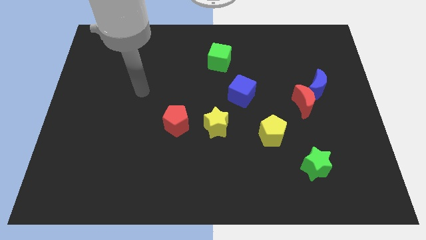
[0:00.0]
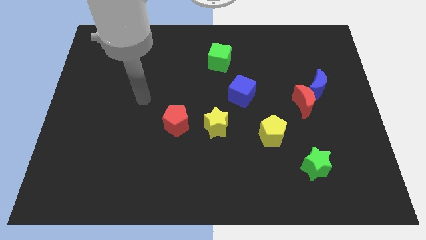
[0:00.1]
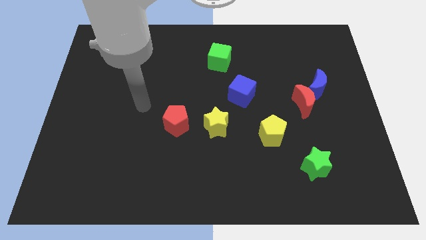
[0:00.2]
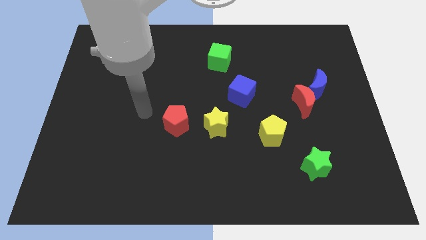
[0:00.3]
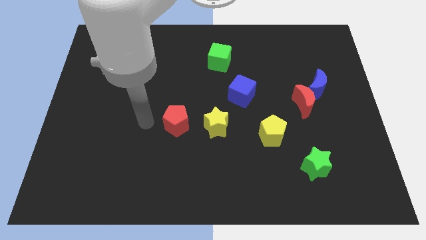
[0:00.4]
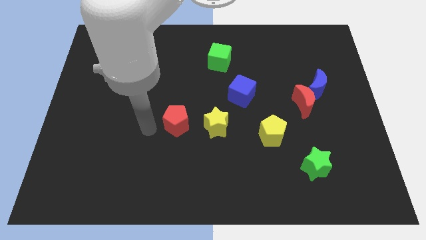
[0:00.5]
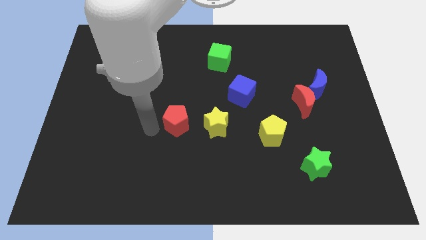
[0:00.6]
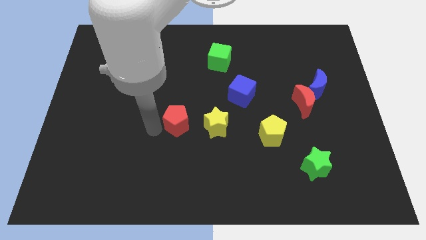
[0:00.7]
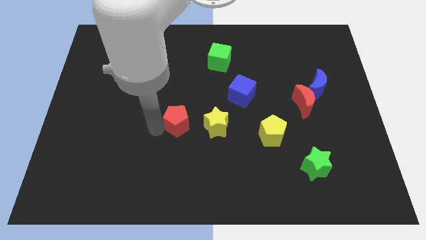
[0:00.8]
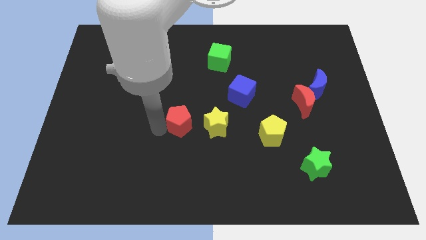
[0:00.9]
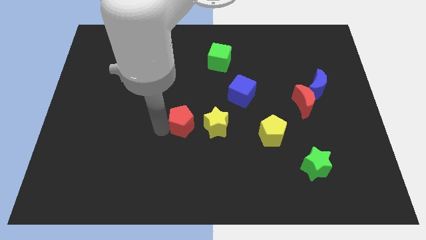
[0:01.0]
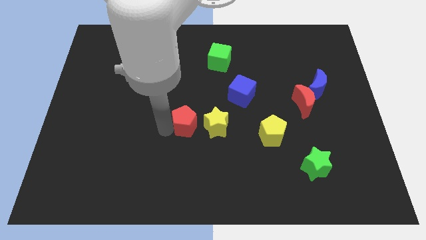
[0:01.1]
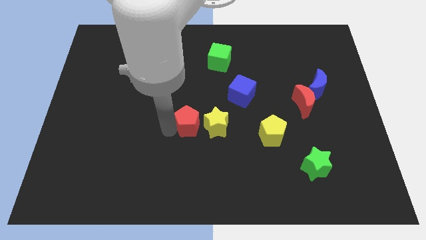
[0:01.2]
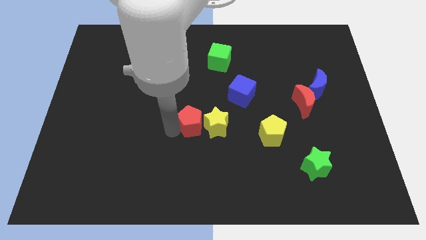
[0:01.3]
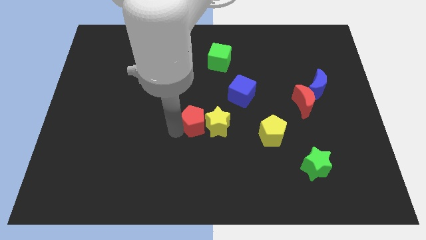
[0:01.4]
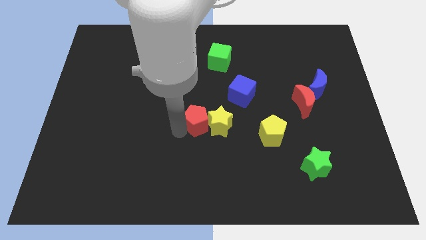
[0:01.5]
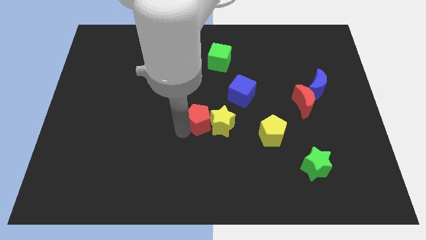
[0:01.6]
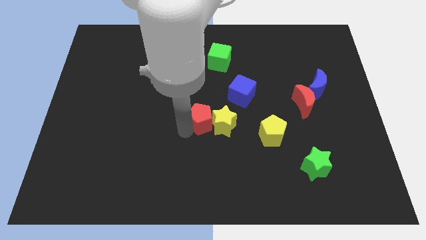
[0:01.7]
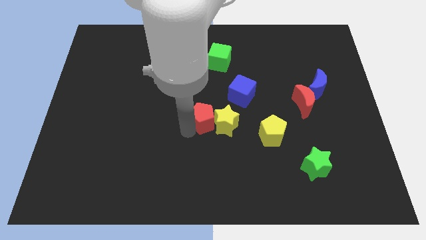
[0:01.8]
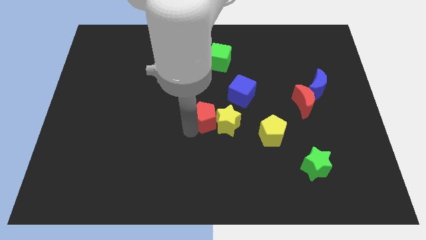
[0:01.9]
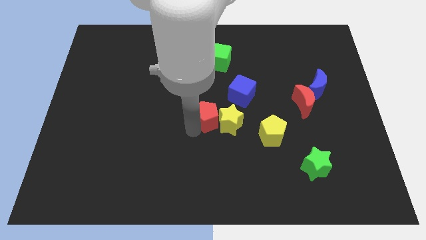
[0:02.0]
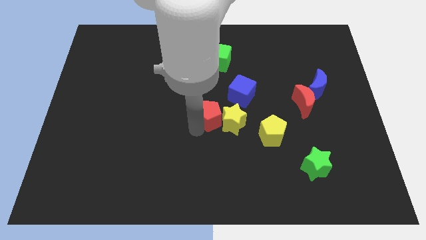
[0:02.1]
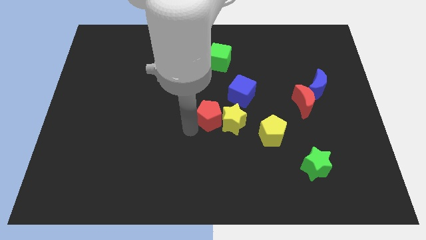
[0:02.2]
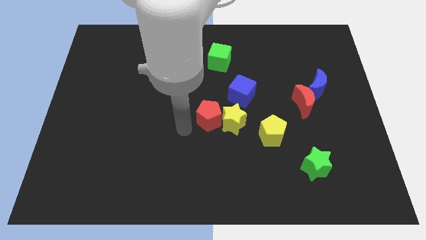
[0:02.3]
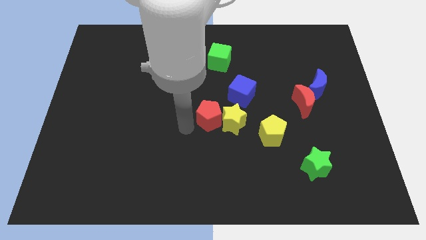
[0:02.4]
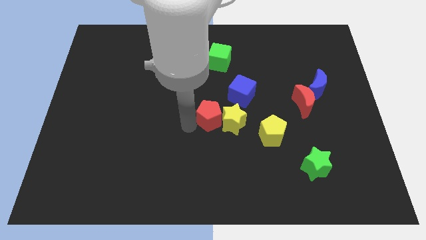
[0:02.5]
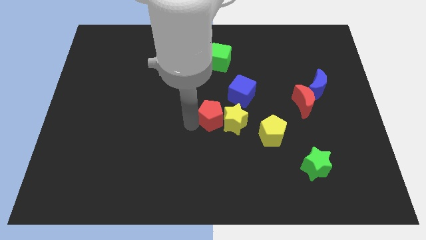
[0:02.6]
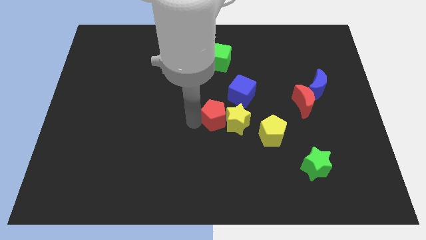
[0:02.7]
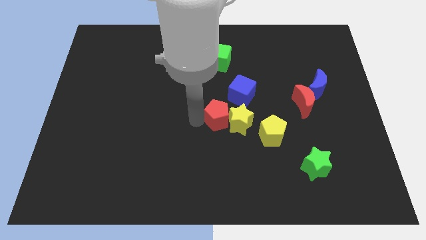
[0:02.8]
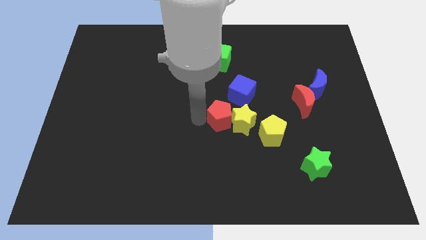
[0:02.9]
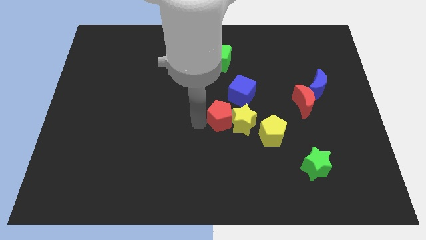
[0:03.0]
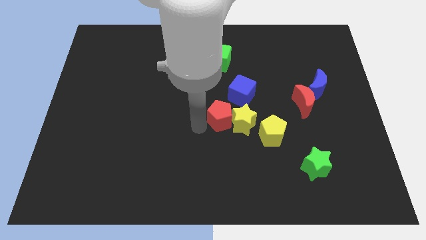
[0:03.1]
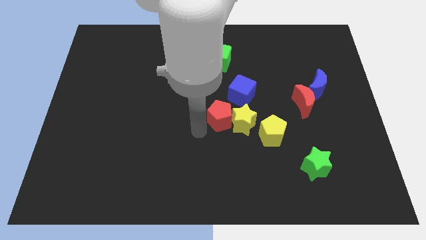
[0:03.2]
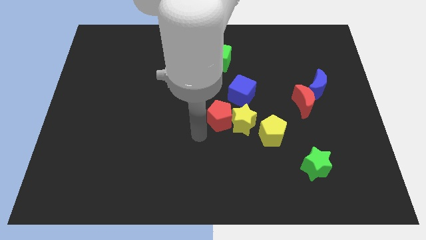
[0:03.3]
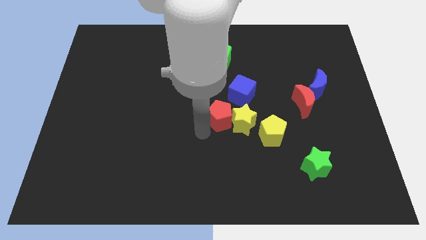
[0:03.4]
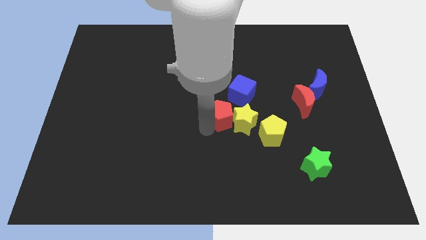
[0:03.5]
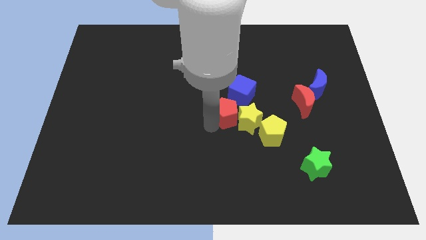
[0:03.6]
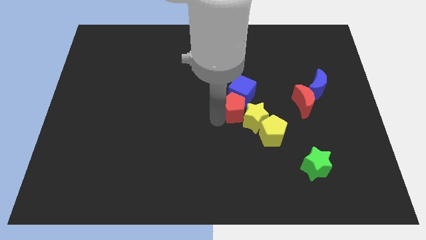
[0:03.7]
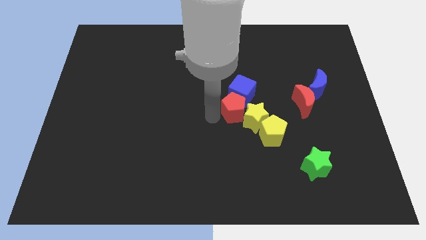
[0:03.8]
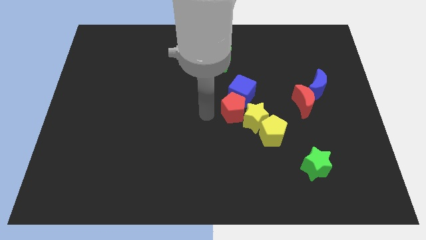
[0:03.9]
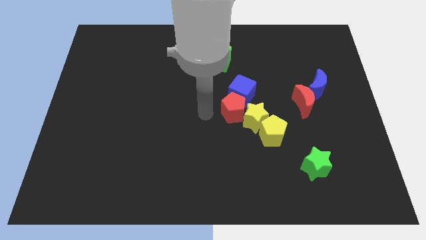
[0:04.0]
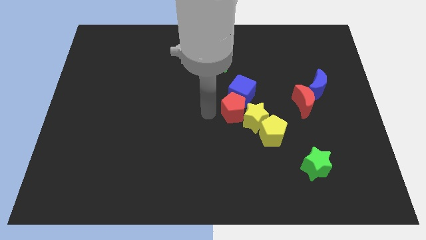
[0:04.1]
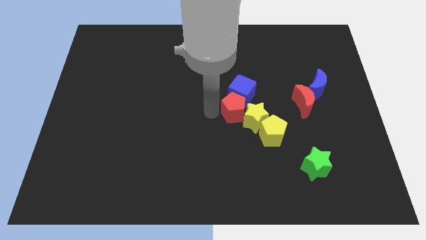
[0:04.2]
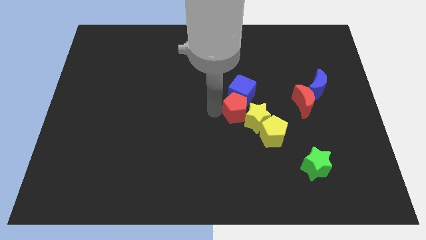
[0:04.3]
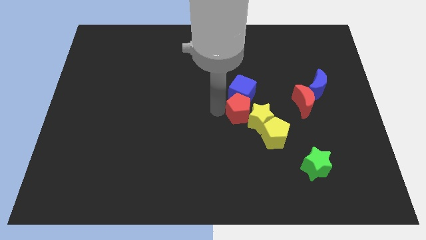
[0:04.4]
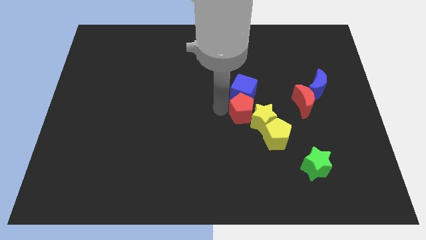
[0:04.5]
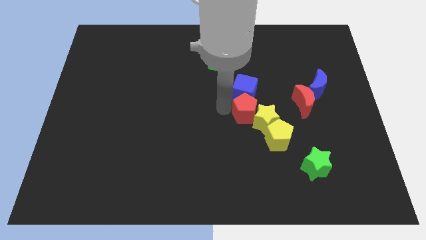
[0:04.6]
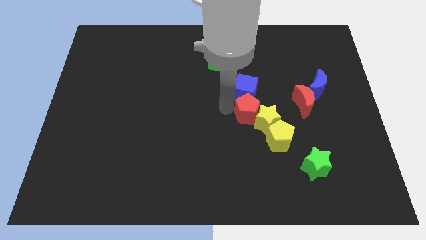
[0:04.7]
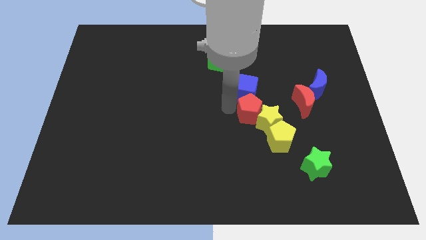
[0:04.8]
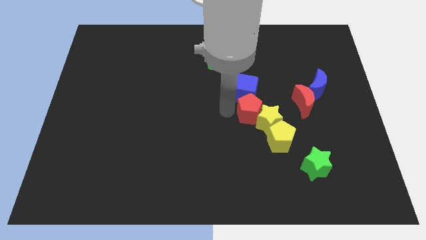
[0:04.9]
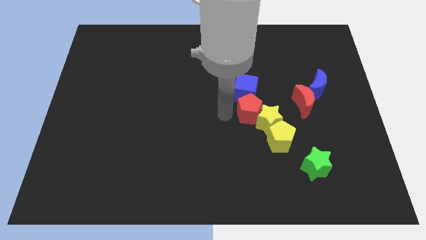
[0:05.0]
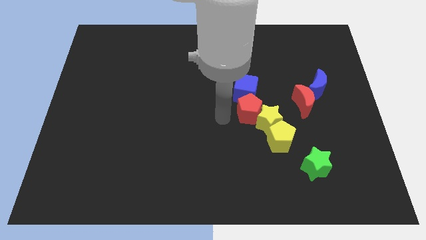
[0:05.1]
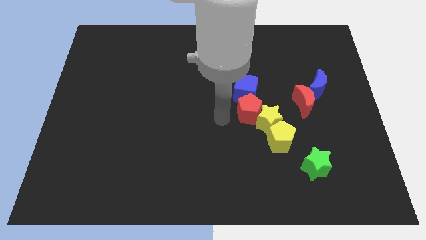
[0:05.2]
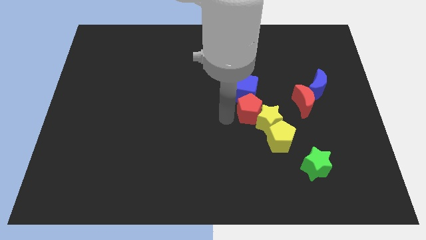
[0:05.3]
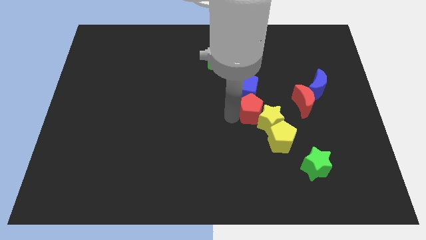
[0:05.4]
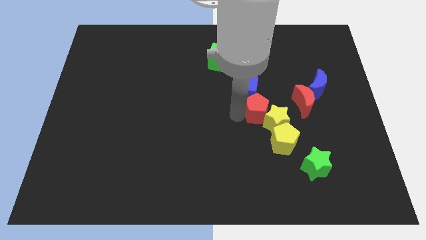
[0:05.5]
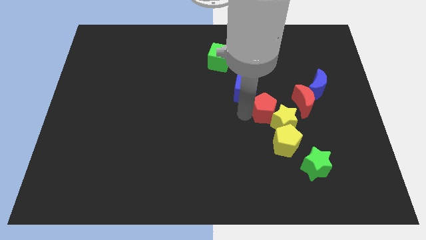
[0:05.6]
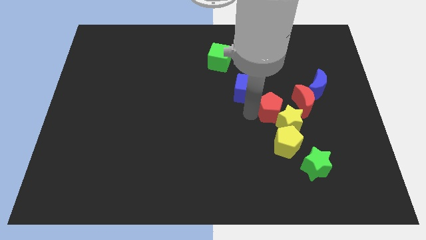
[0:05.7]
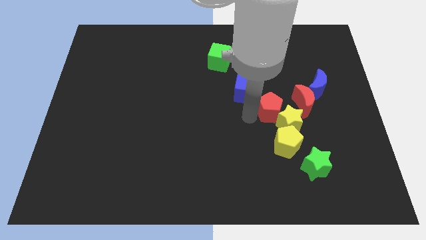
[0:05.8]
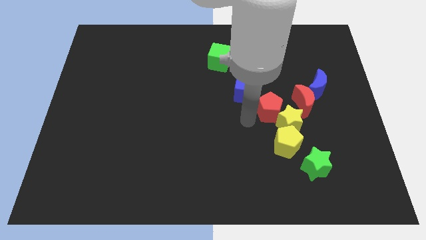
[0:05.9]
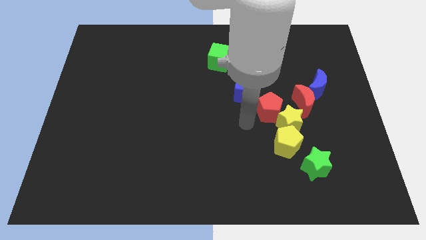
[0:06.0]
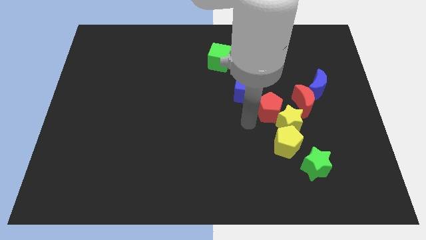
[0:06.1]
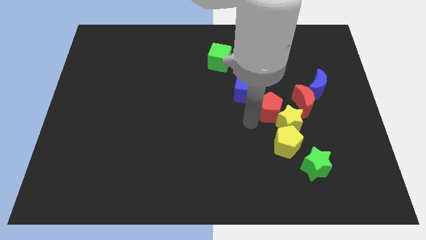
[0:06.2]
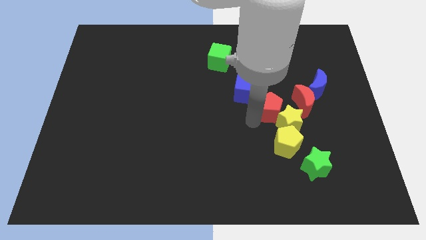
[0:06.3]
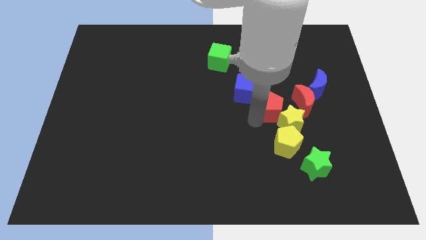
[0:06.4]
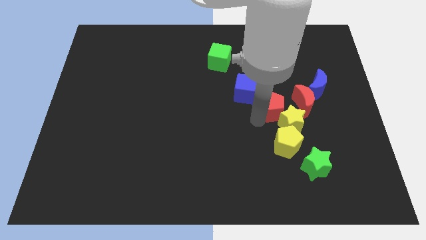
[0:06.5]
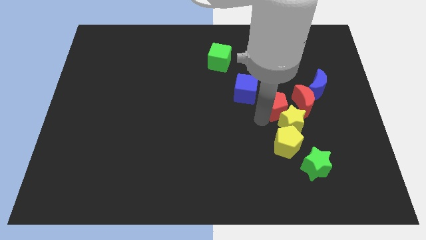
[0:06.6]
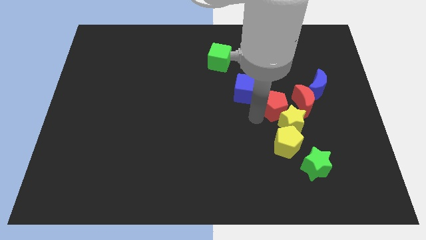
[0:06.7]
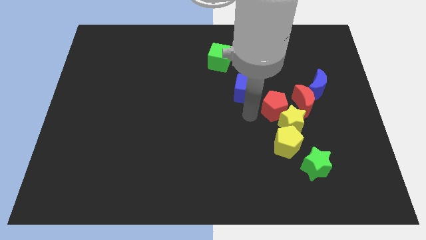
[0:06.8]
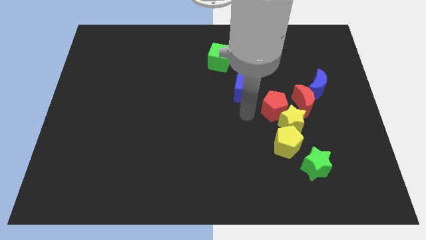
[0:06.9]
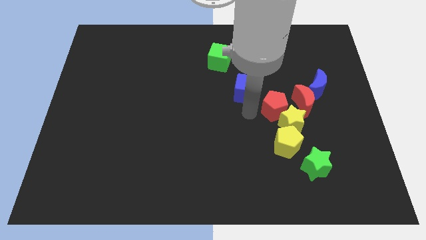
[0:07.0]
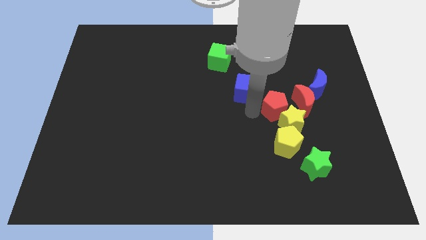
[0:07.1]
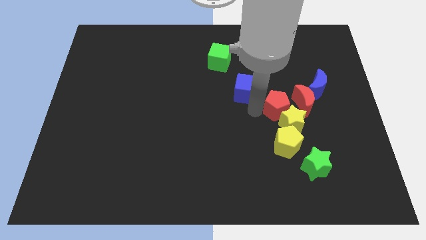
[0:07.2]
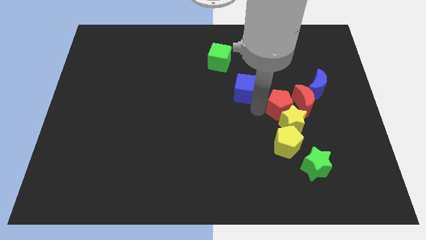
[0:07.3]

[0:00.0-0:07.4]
put the red pentagon next to the red moon

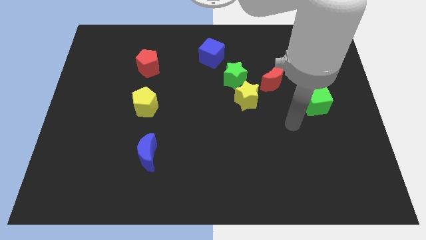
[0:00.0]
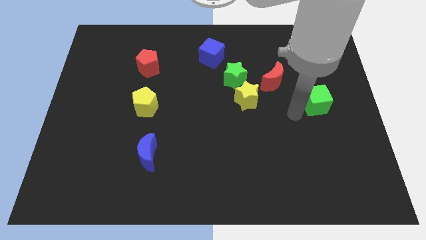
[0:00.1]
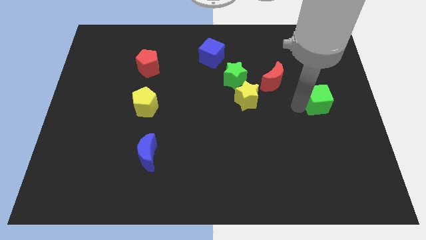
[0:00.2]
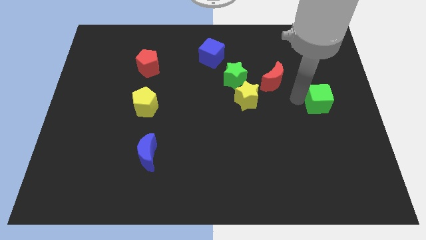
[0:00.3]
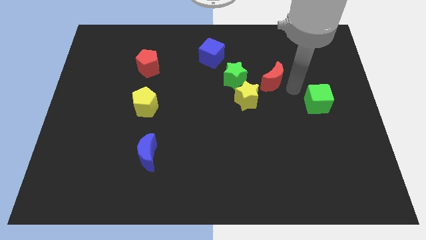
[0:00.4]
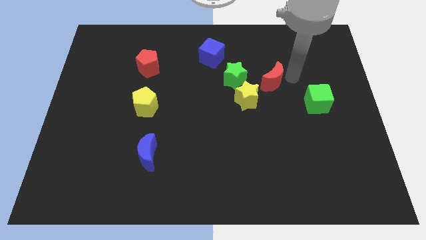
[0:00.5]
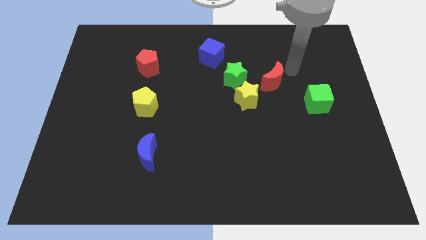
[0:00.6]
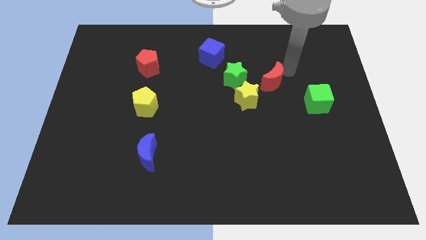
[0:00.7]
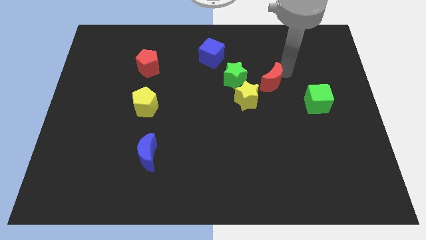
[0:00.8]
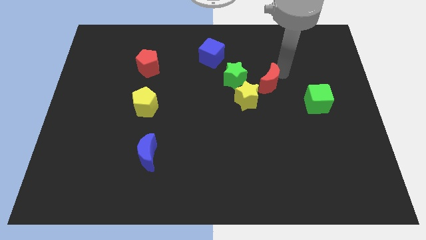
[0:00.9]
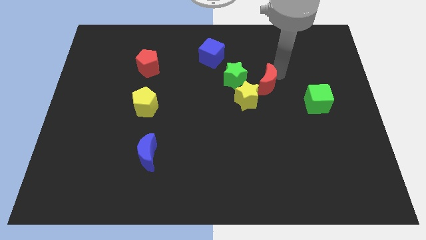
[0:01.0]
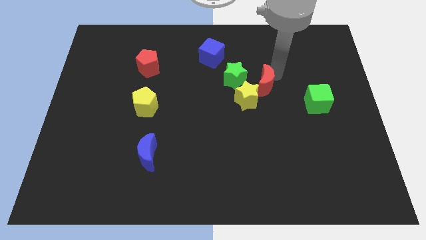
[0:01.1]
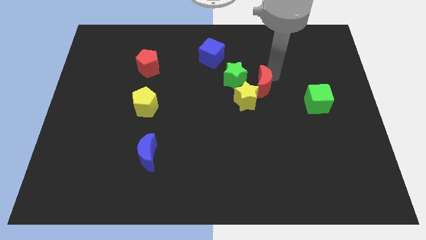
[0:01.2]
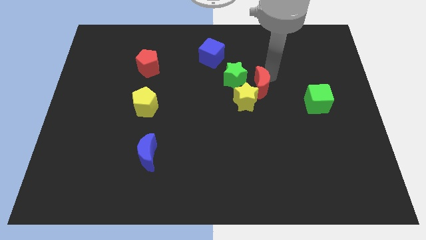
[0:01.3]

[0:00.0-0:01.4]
slide the red moon towards the yellow star
